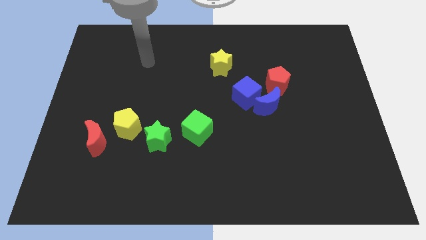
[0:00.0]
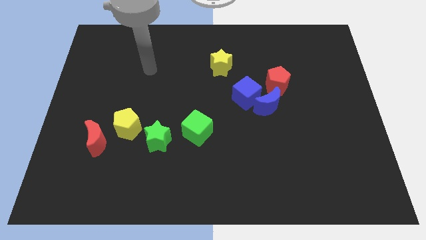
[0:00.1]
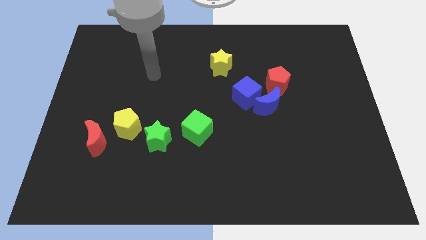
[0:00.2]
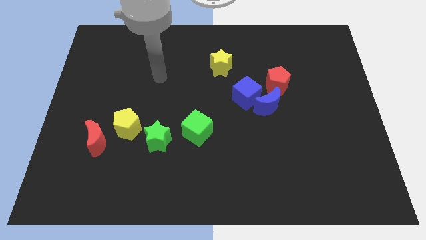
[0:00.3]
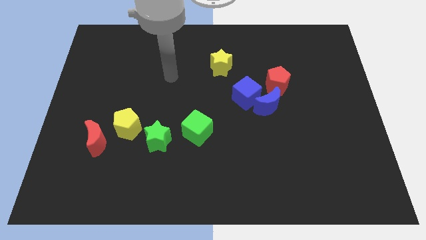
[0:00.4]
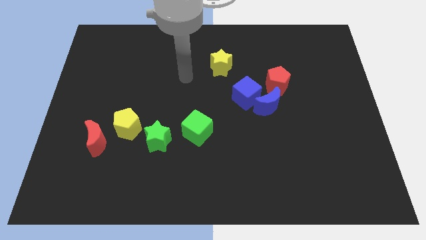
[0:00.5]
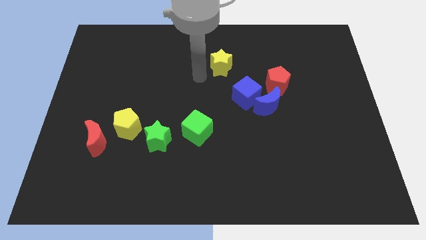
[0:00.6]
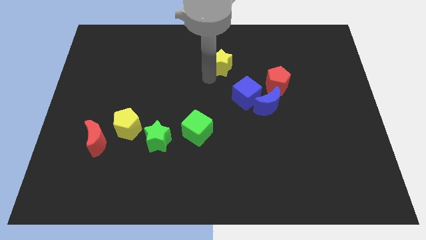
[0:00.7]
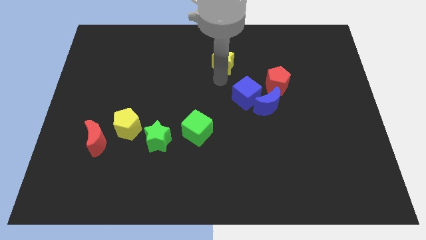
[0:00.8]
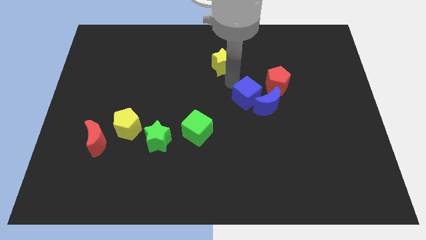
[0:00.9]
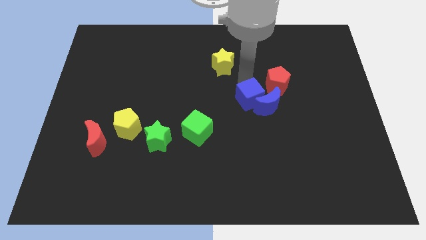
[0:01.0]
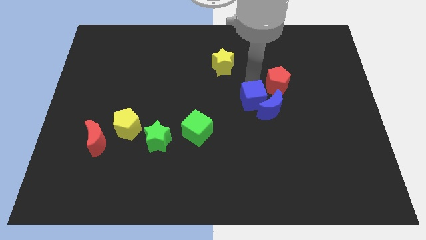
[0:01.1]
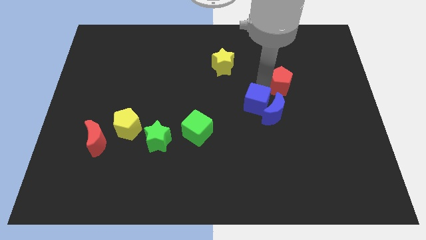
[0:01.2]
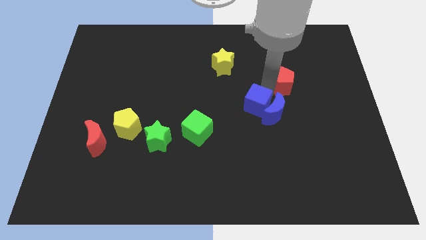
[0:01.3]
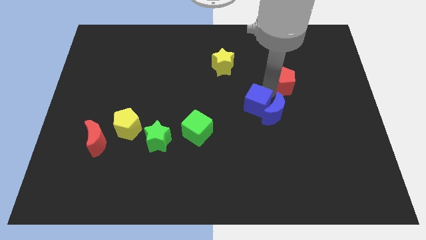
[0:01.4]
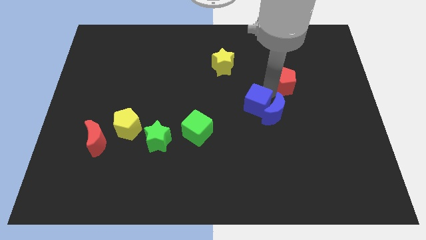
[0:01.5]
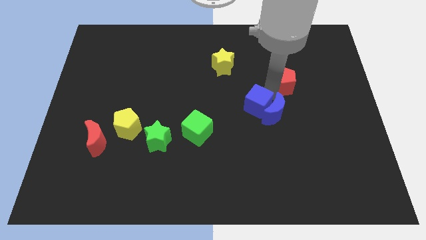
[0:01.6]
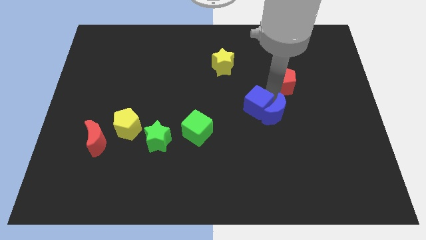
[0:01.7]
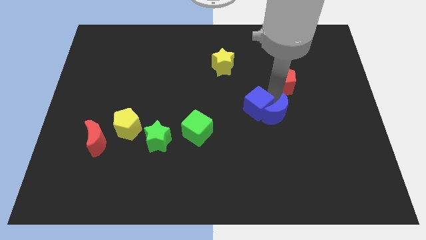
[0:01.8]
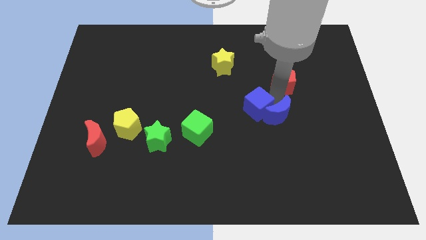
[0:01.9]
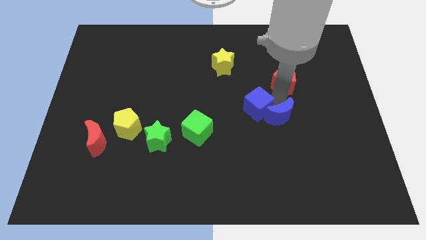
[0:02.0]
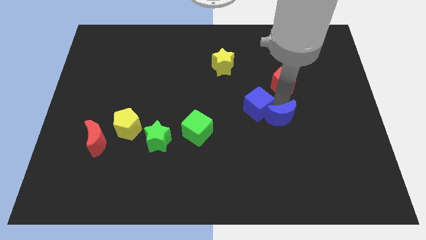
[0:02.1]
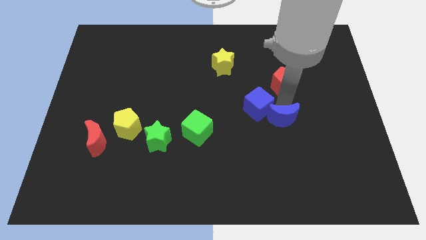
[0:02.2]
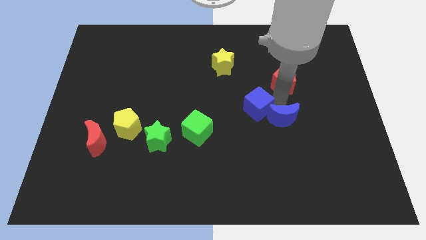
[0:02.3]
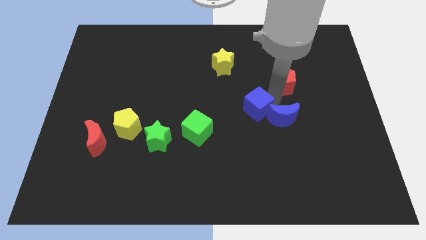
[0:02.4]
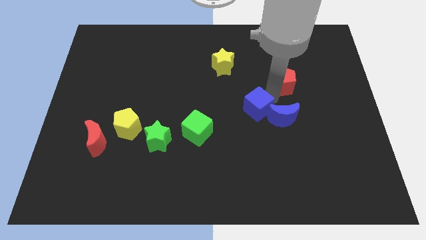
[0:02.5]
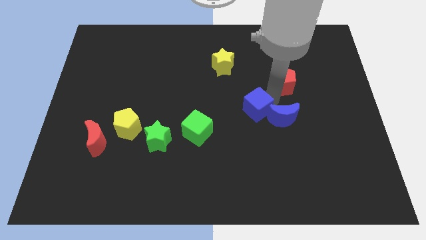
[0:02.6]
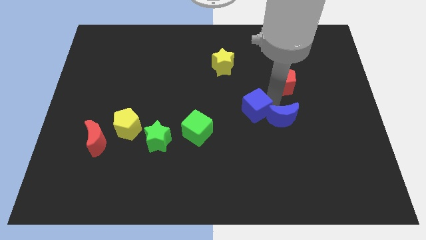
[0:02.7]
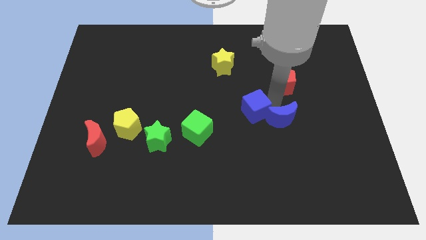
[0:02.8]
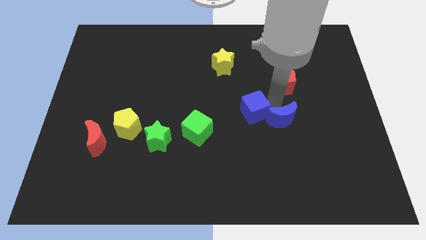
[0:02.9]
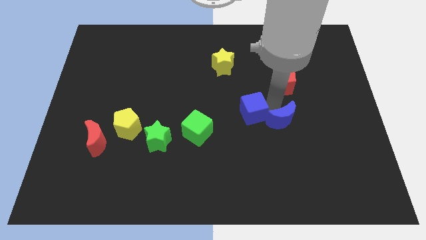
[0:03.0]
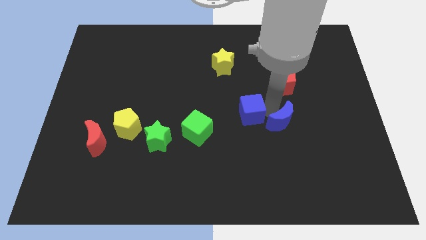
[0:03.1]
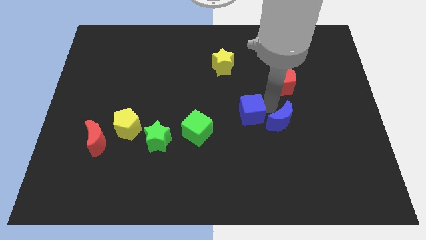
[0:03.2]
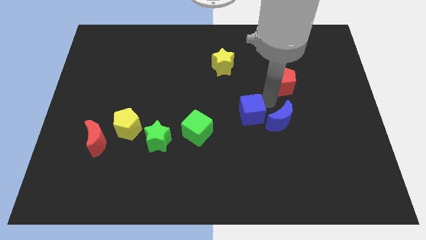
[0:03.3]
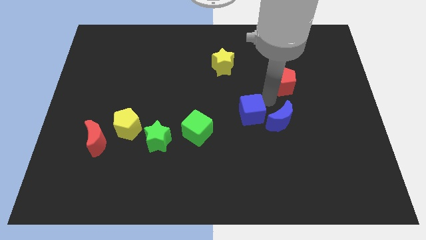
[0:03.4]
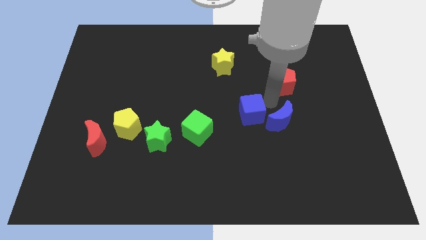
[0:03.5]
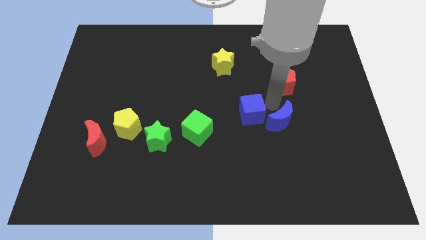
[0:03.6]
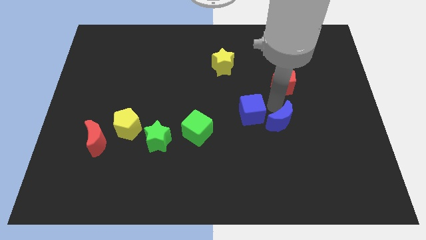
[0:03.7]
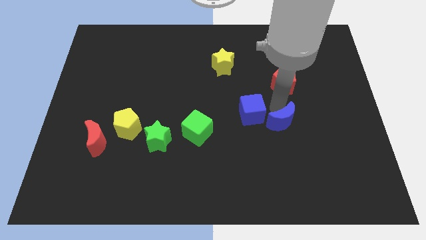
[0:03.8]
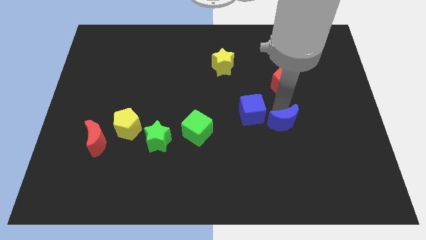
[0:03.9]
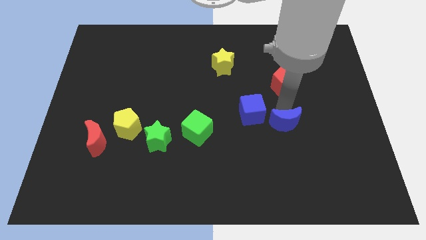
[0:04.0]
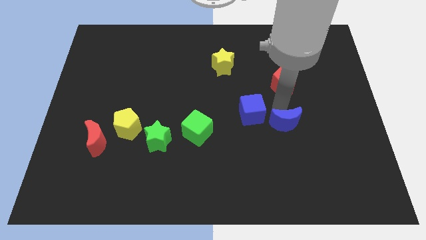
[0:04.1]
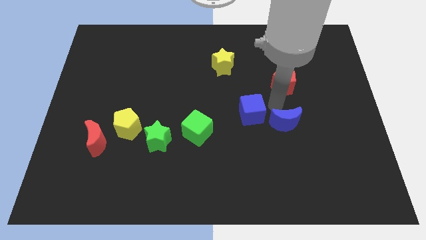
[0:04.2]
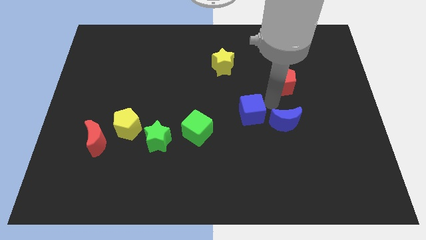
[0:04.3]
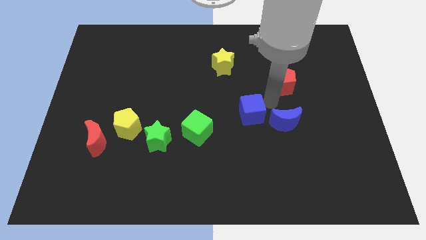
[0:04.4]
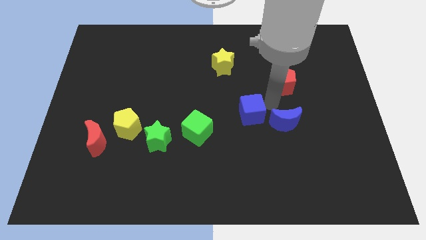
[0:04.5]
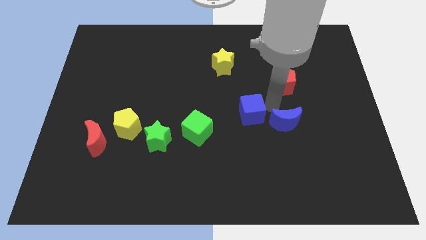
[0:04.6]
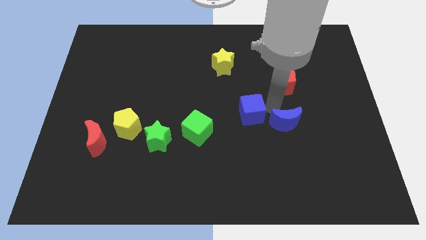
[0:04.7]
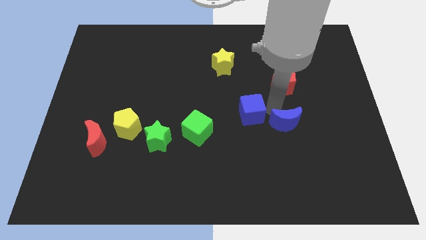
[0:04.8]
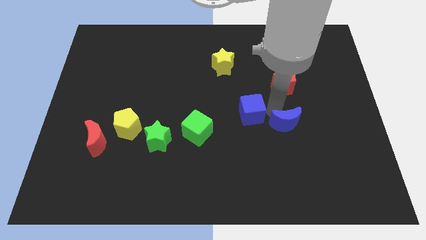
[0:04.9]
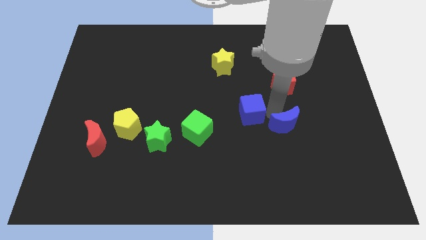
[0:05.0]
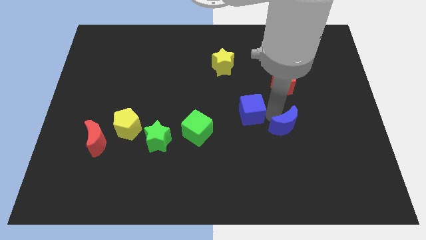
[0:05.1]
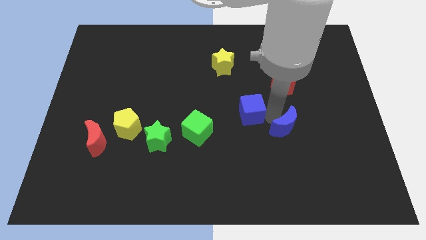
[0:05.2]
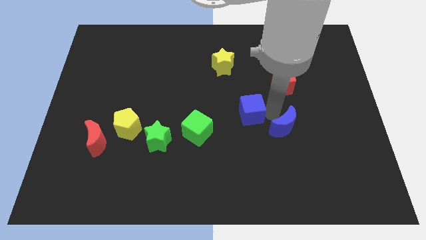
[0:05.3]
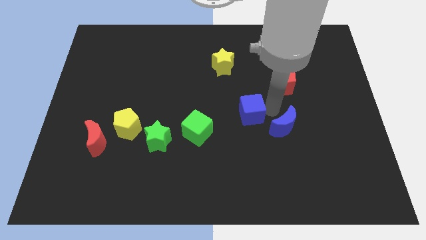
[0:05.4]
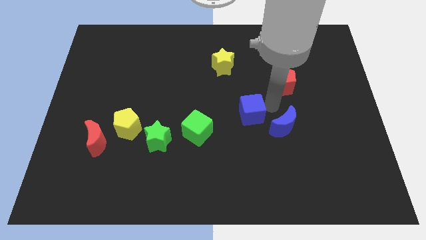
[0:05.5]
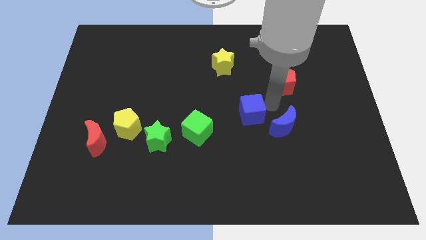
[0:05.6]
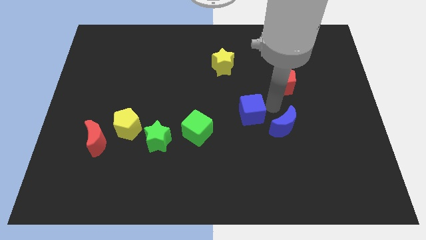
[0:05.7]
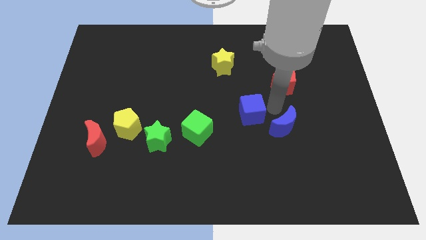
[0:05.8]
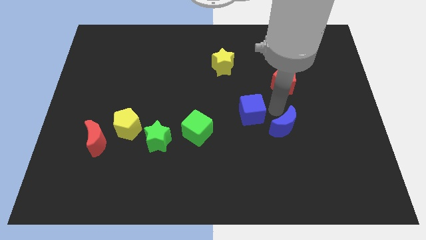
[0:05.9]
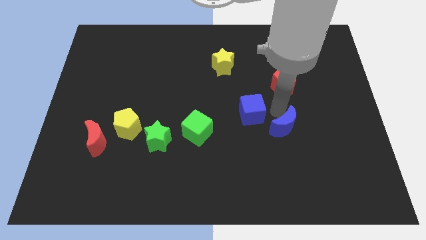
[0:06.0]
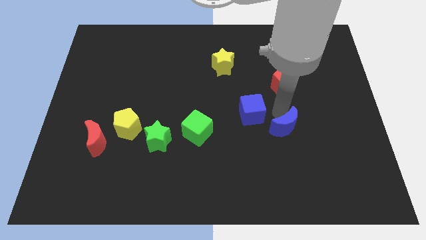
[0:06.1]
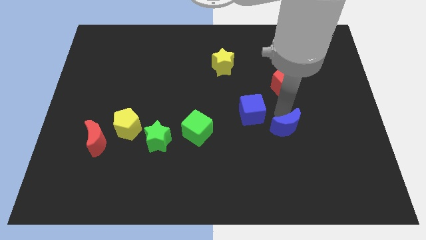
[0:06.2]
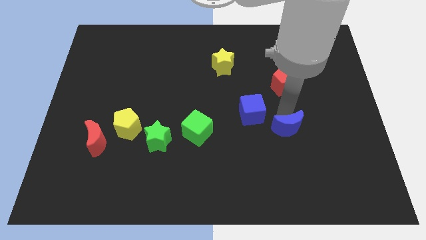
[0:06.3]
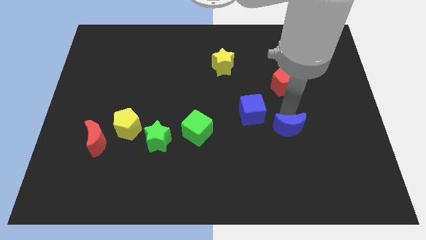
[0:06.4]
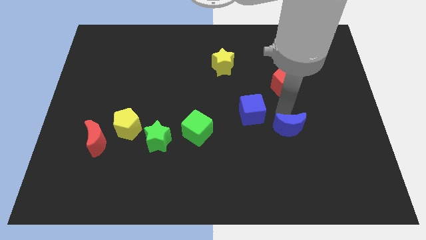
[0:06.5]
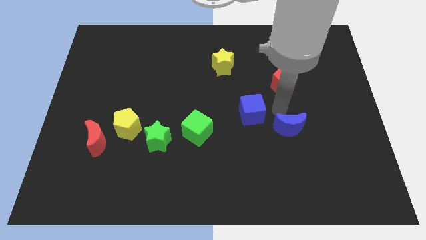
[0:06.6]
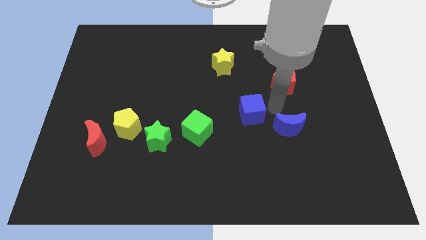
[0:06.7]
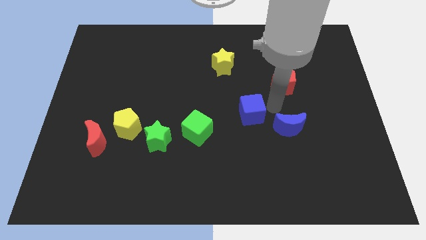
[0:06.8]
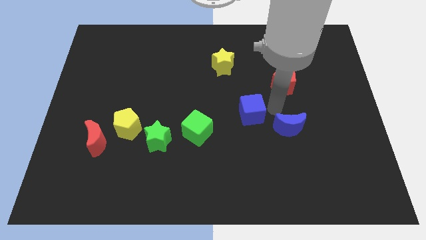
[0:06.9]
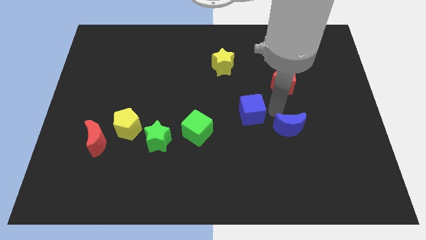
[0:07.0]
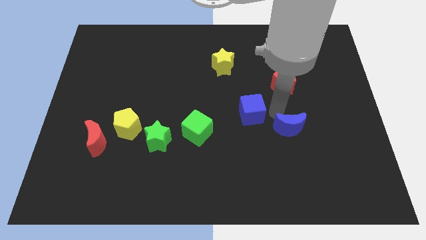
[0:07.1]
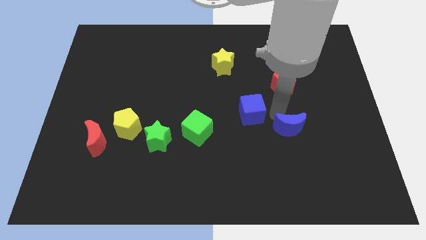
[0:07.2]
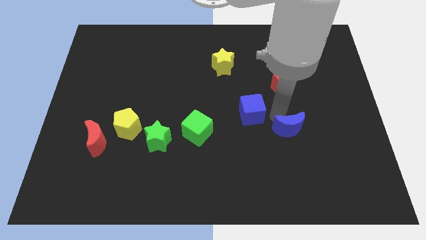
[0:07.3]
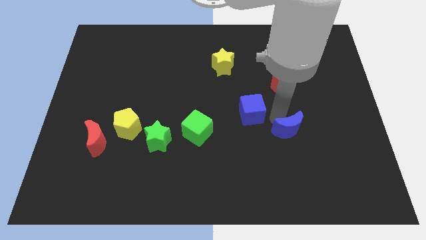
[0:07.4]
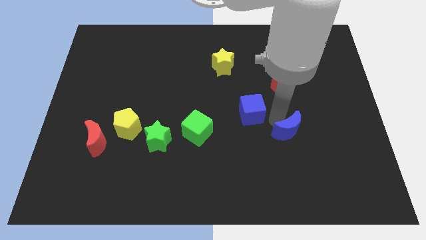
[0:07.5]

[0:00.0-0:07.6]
separate the blue moon from the blue cube and red pentagon

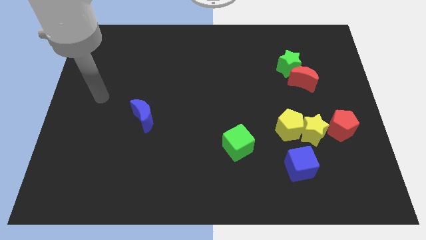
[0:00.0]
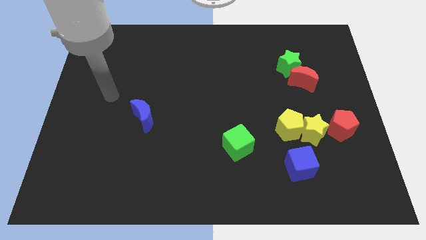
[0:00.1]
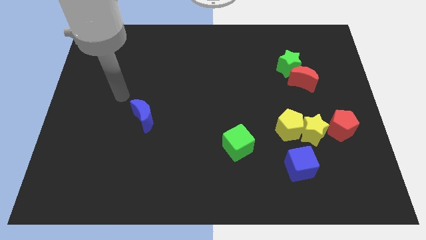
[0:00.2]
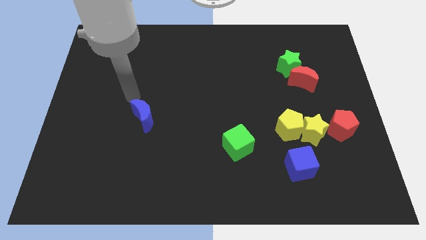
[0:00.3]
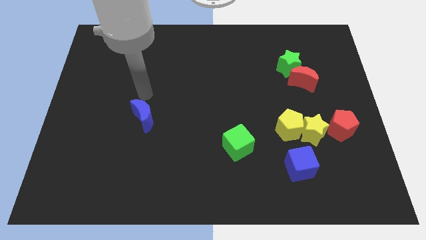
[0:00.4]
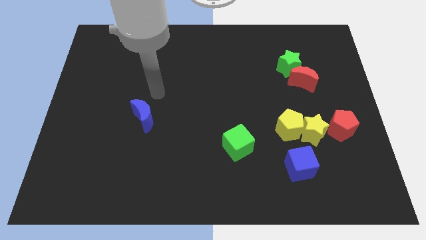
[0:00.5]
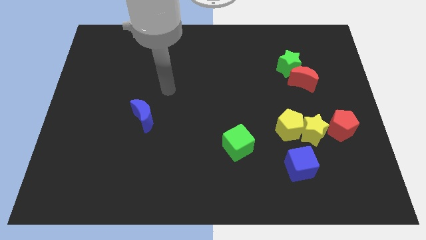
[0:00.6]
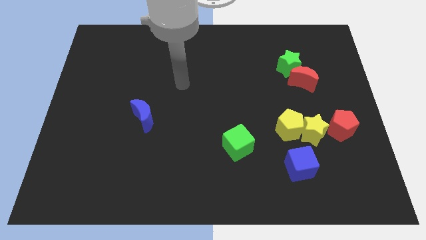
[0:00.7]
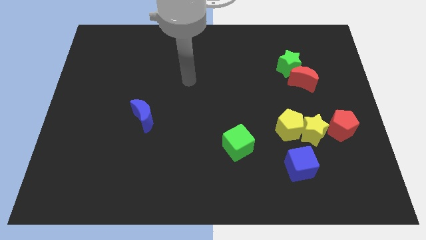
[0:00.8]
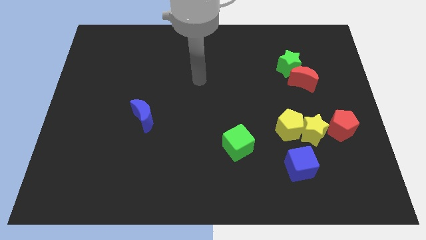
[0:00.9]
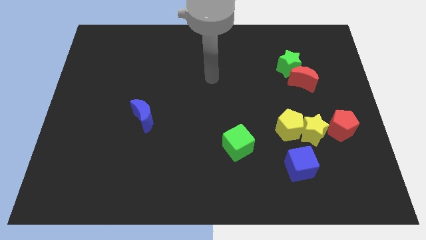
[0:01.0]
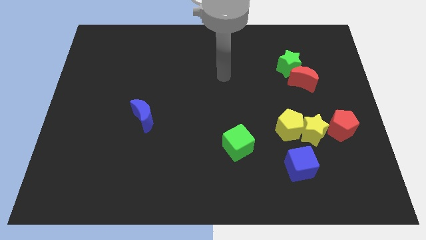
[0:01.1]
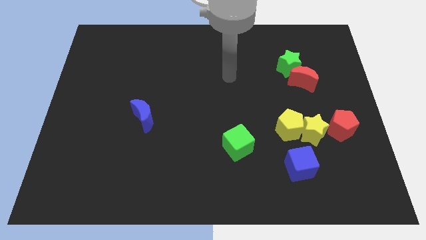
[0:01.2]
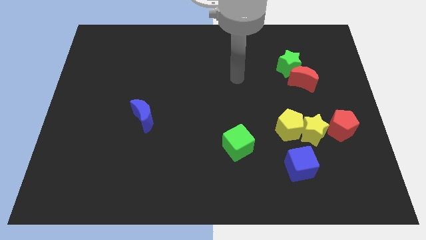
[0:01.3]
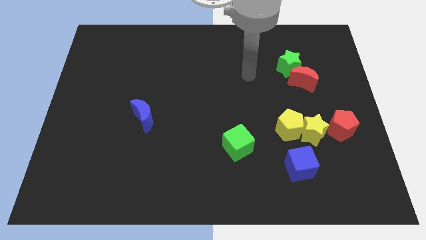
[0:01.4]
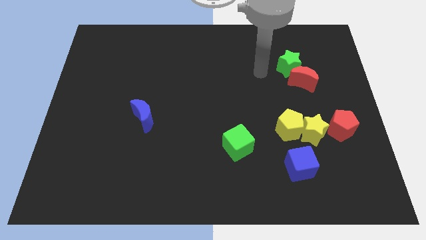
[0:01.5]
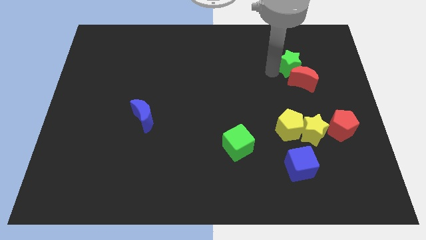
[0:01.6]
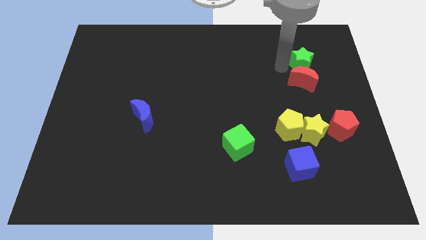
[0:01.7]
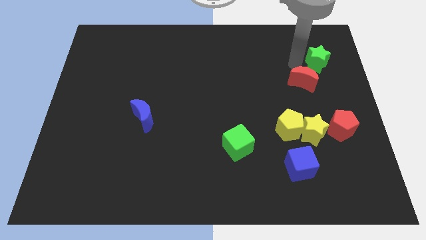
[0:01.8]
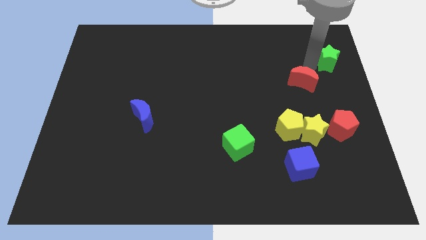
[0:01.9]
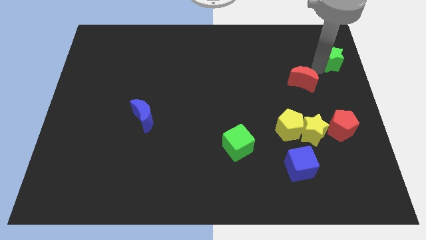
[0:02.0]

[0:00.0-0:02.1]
pull the red moon apart from the green star
